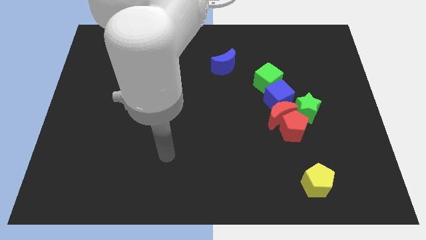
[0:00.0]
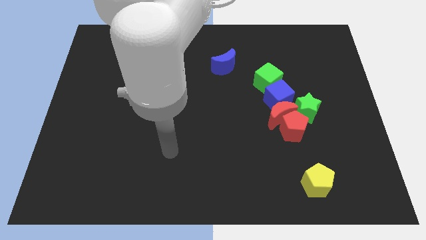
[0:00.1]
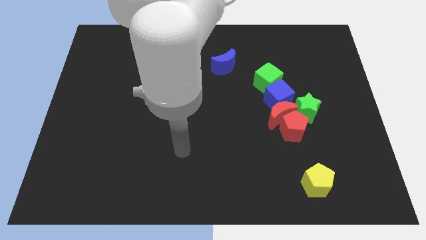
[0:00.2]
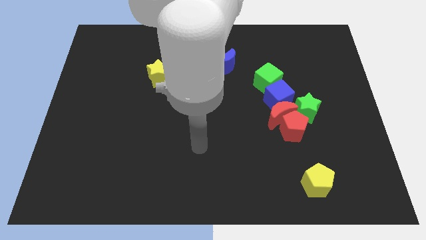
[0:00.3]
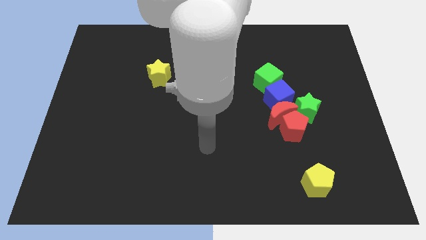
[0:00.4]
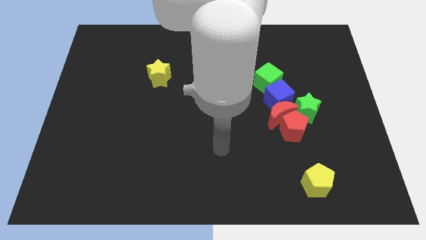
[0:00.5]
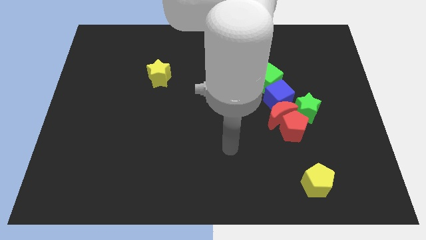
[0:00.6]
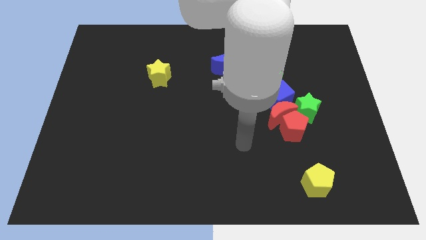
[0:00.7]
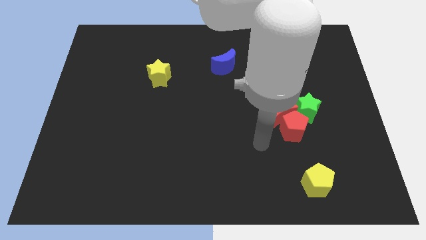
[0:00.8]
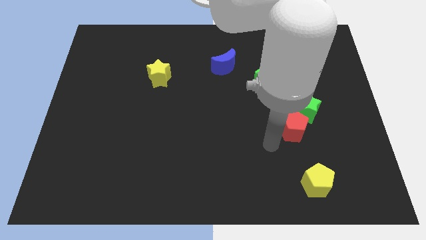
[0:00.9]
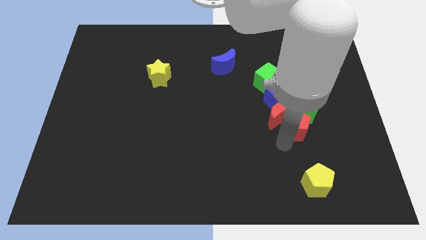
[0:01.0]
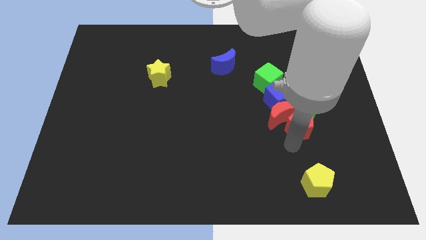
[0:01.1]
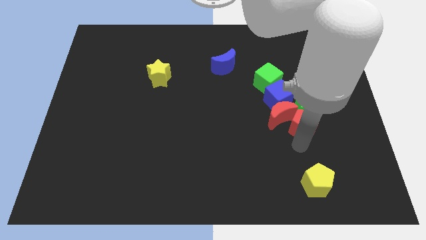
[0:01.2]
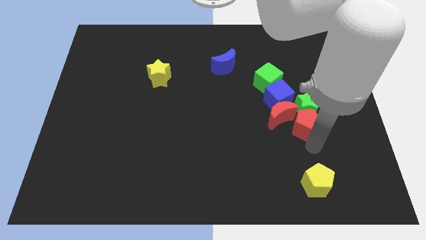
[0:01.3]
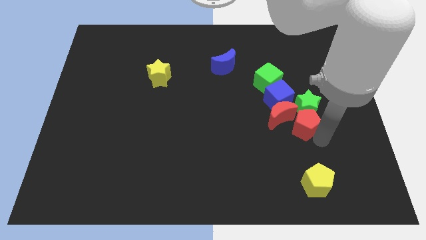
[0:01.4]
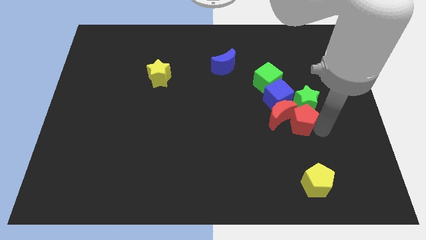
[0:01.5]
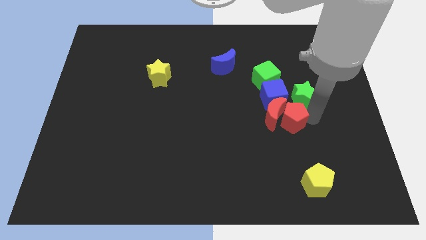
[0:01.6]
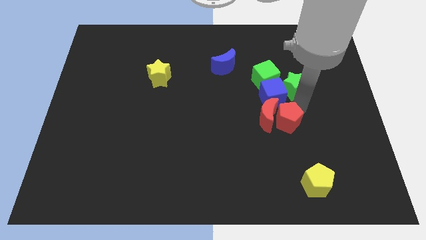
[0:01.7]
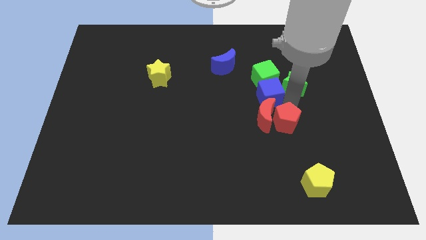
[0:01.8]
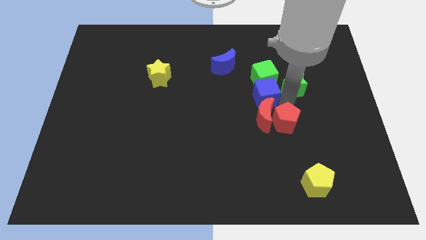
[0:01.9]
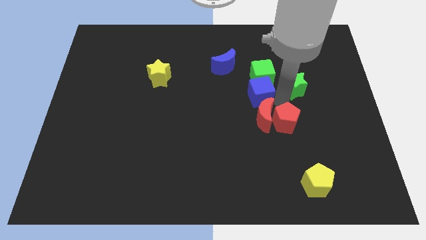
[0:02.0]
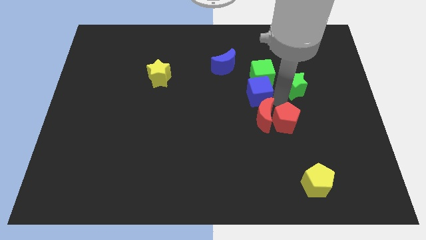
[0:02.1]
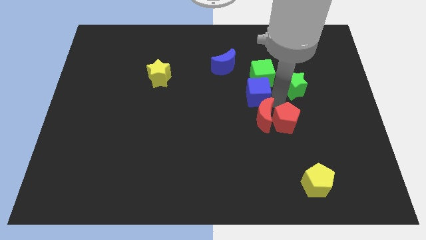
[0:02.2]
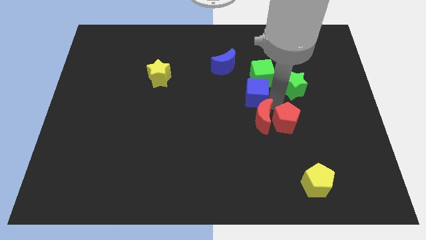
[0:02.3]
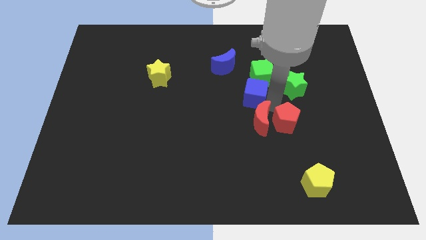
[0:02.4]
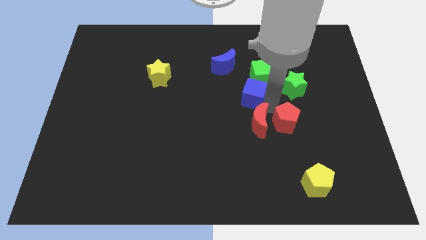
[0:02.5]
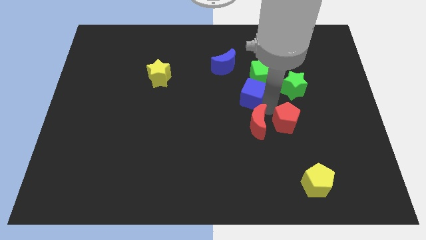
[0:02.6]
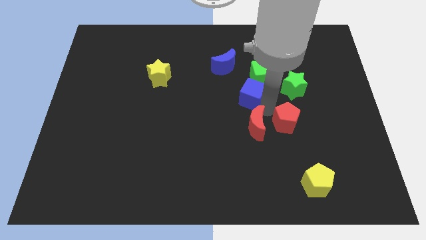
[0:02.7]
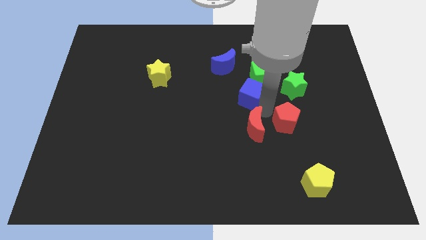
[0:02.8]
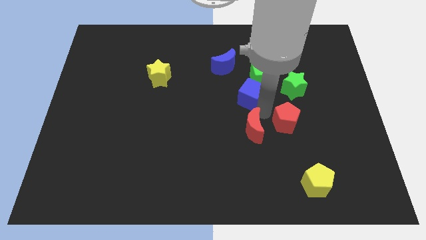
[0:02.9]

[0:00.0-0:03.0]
move the red moon away from the red pentagon, blue cube, and green star

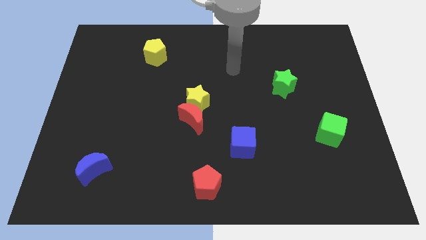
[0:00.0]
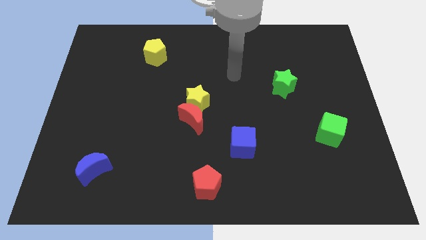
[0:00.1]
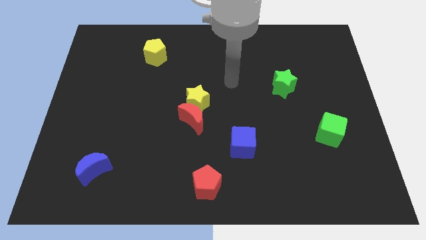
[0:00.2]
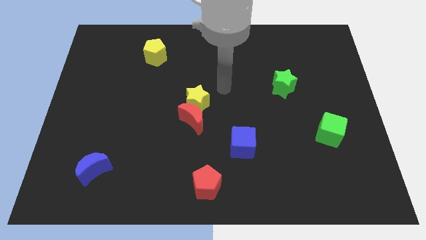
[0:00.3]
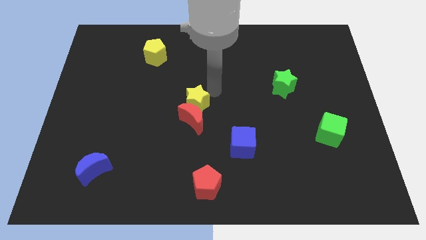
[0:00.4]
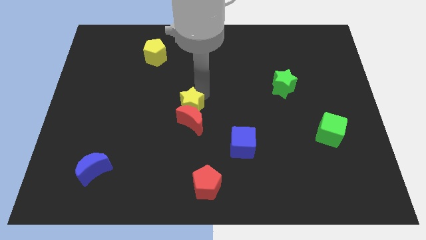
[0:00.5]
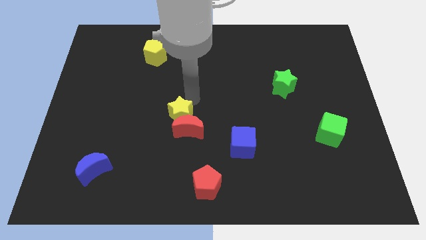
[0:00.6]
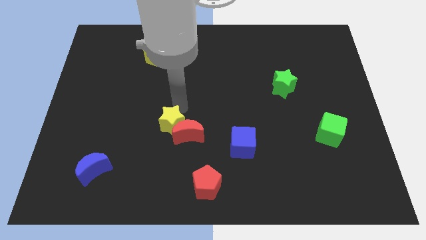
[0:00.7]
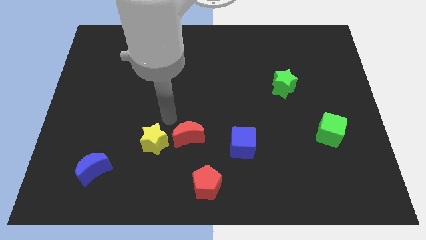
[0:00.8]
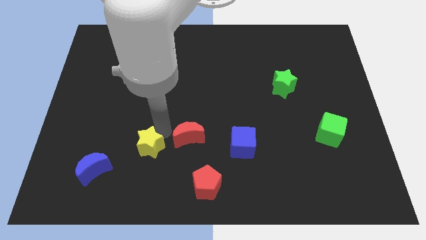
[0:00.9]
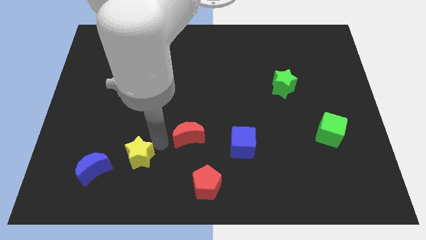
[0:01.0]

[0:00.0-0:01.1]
pull the red moon apart from the yellow star

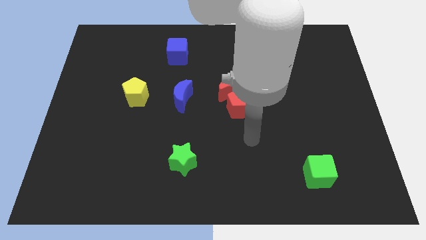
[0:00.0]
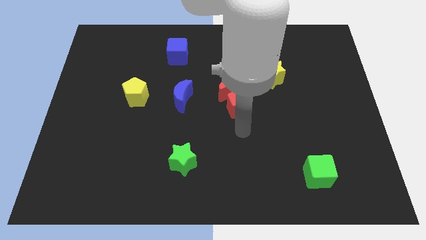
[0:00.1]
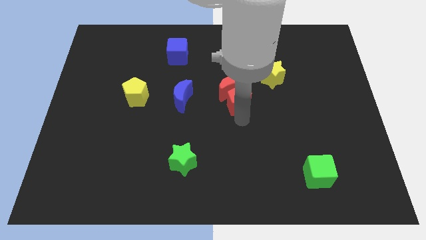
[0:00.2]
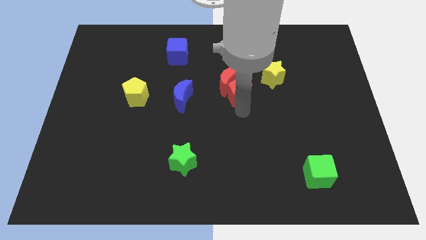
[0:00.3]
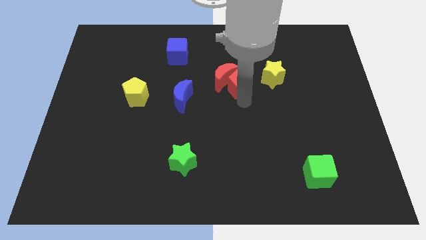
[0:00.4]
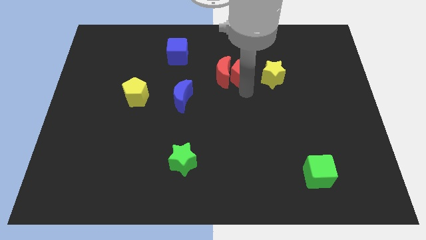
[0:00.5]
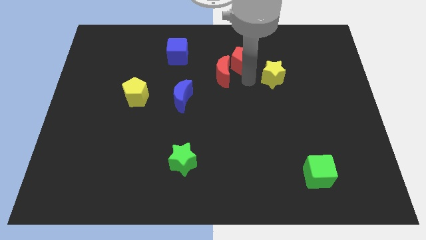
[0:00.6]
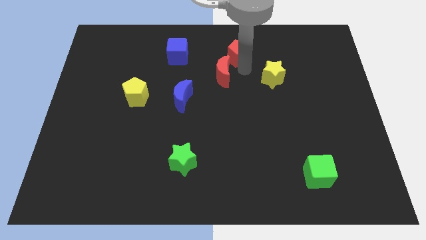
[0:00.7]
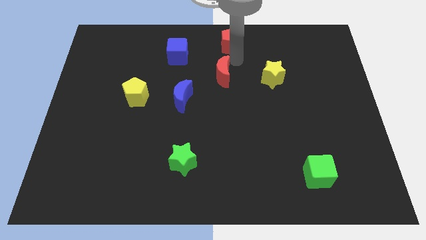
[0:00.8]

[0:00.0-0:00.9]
move the red moon away from the red pentagon

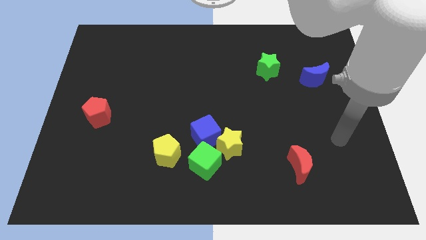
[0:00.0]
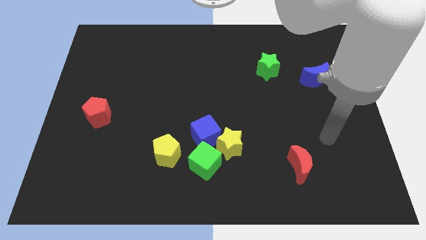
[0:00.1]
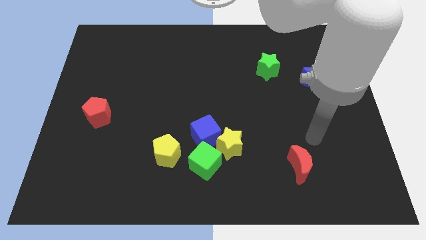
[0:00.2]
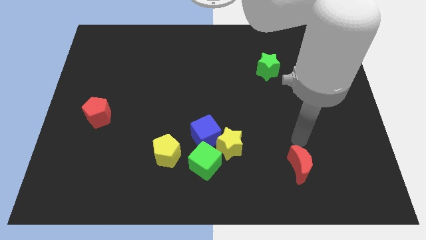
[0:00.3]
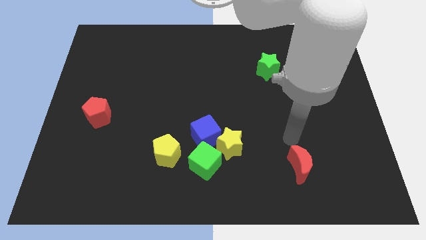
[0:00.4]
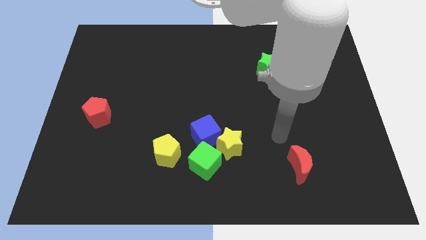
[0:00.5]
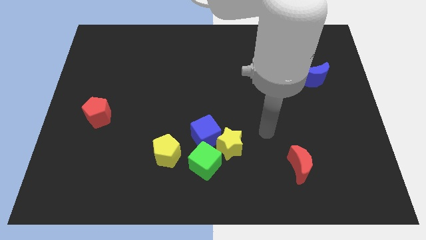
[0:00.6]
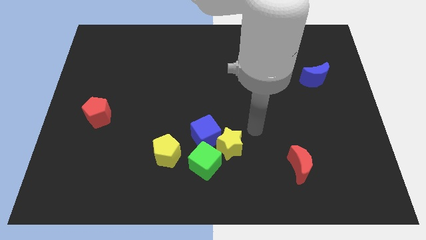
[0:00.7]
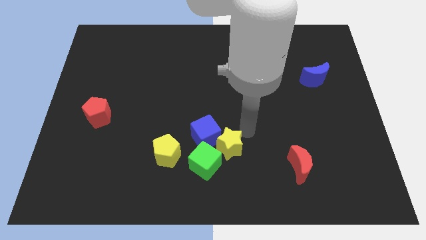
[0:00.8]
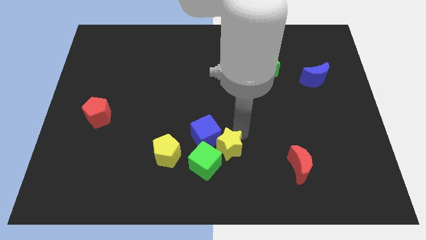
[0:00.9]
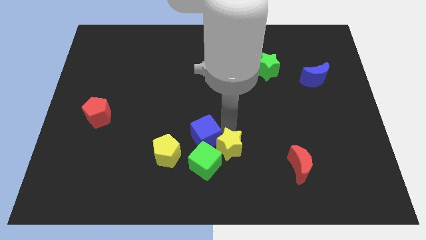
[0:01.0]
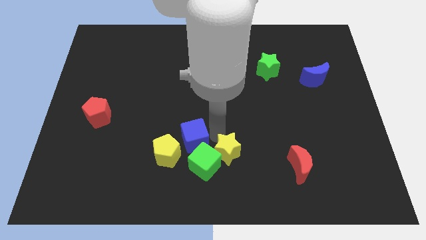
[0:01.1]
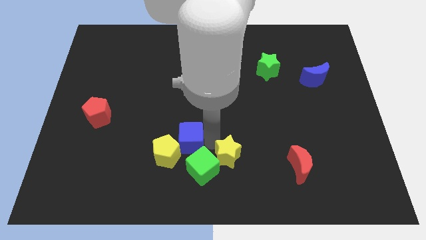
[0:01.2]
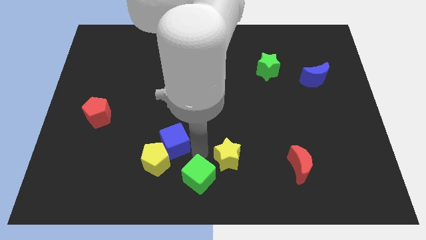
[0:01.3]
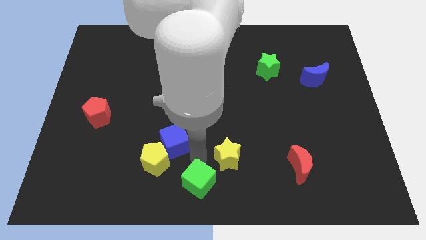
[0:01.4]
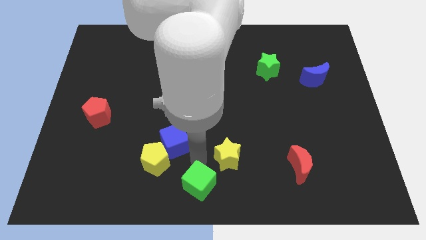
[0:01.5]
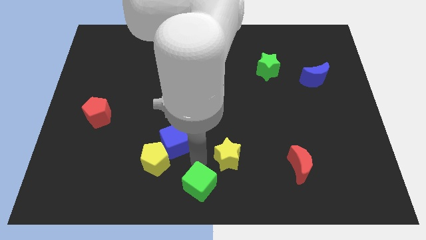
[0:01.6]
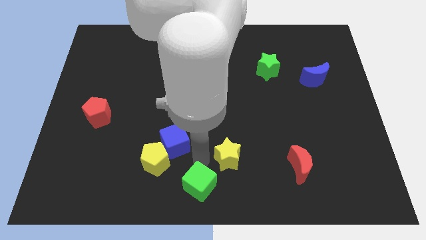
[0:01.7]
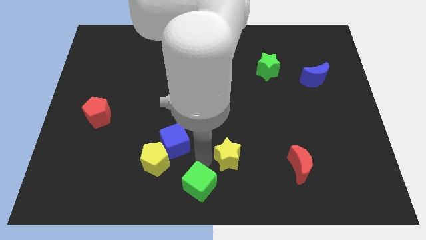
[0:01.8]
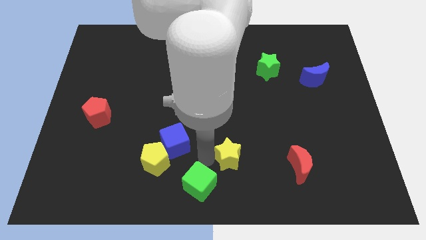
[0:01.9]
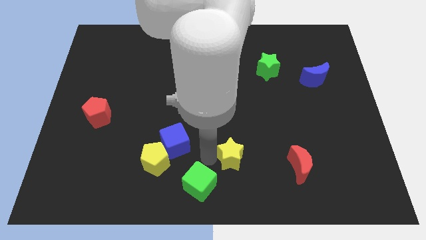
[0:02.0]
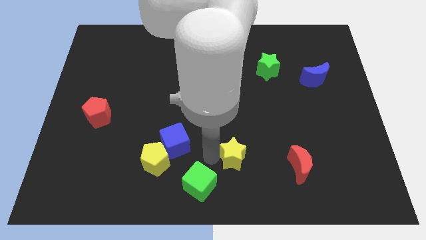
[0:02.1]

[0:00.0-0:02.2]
pull the yellow star apart from the blue cube and green cube

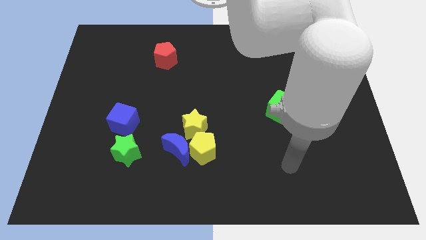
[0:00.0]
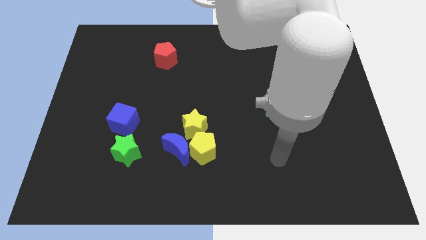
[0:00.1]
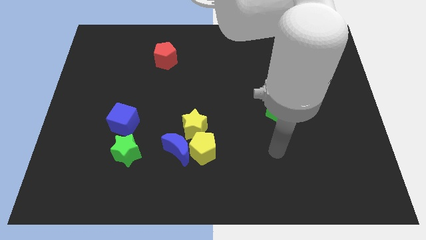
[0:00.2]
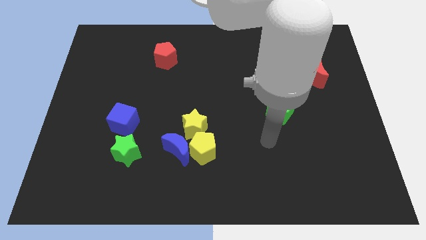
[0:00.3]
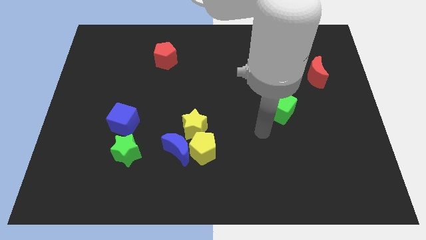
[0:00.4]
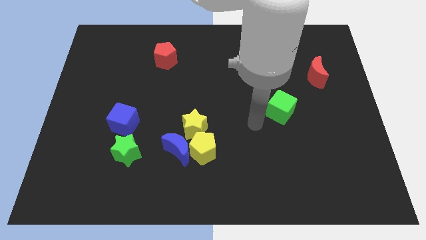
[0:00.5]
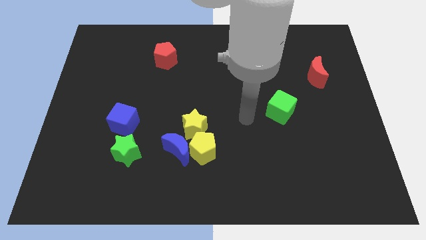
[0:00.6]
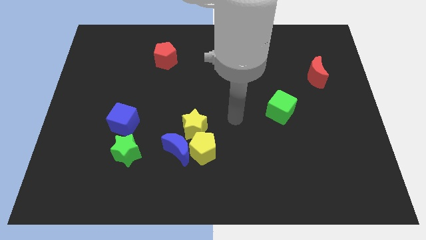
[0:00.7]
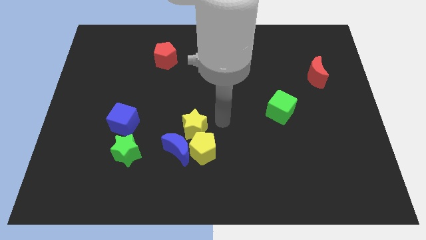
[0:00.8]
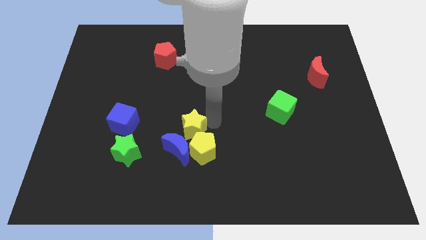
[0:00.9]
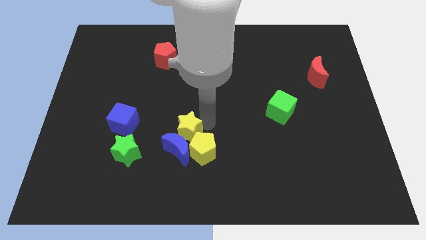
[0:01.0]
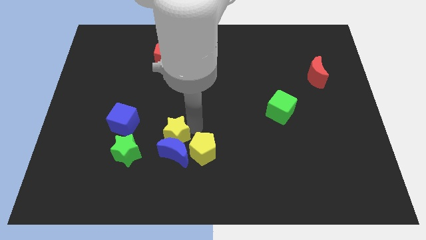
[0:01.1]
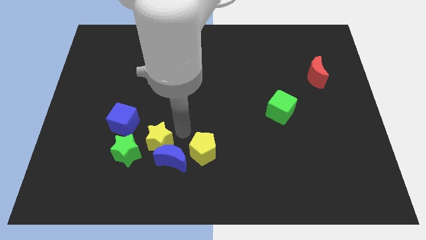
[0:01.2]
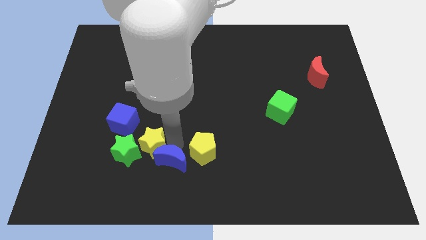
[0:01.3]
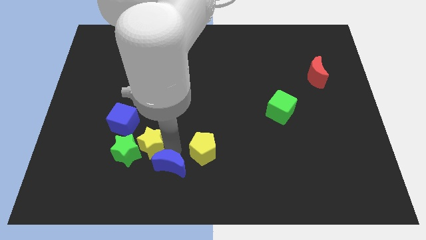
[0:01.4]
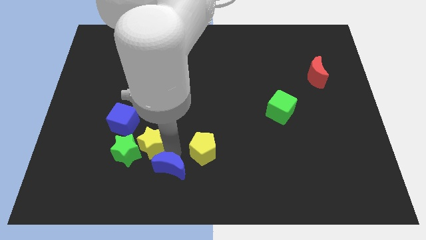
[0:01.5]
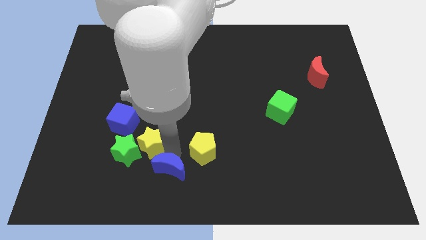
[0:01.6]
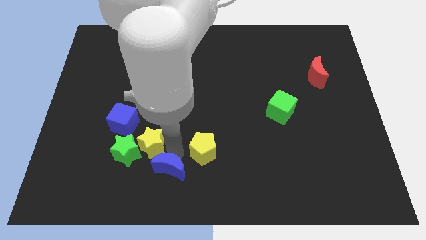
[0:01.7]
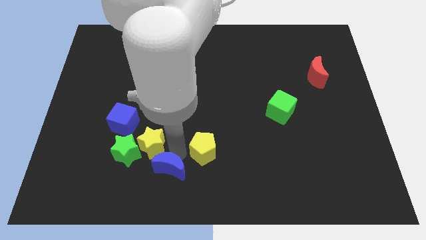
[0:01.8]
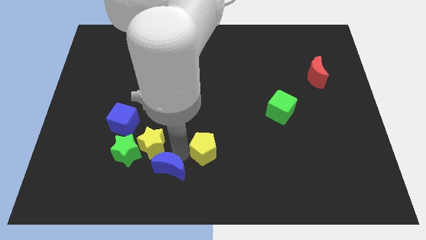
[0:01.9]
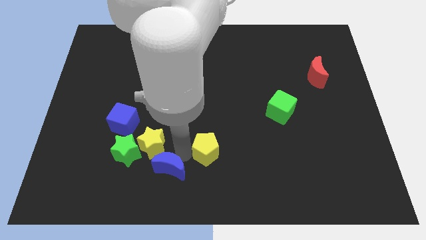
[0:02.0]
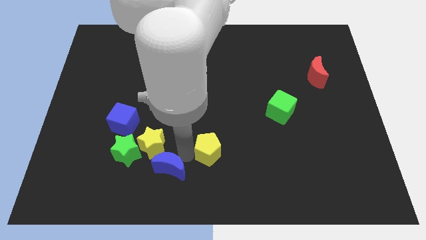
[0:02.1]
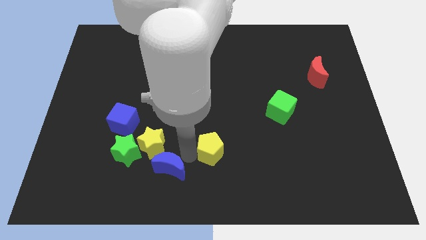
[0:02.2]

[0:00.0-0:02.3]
separate the yellow pentagon from the blue moon and yellow star
